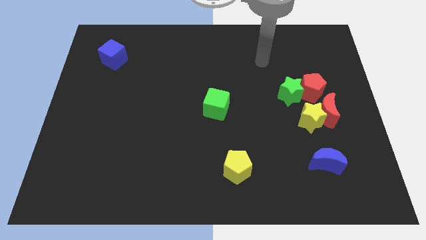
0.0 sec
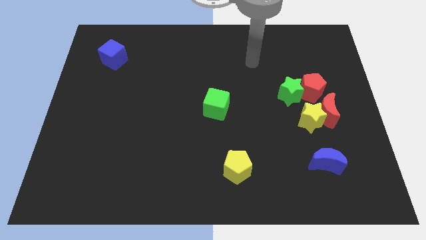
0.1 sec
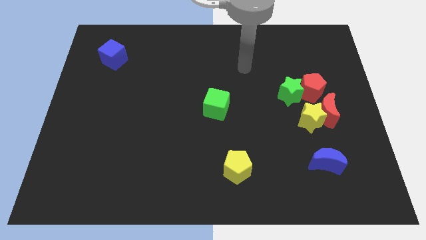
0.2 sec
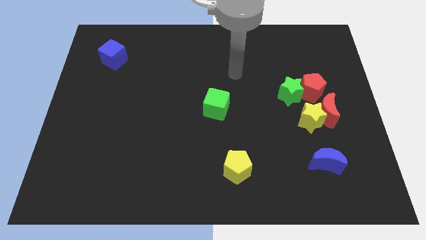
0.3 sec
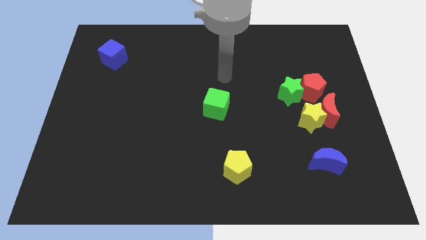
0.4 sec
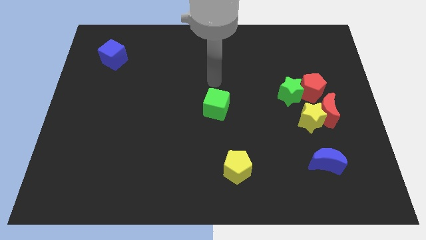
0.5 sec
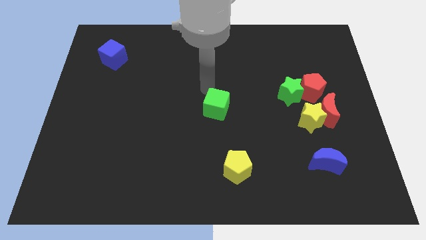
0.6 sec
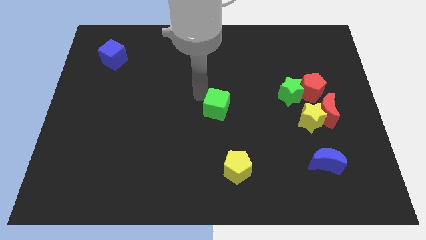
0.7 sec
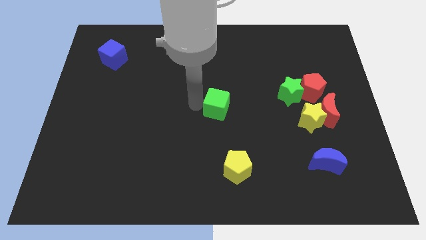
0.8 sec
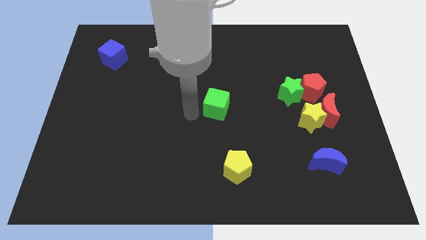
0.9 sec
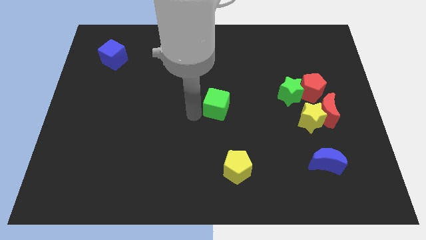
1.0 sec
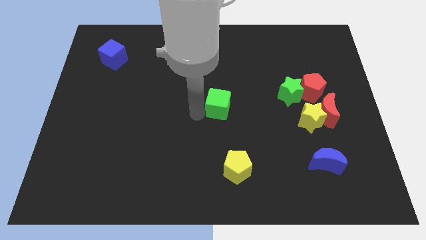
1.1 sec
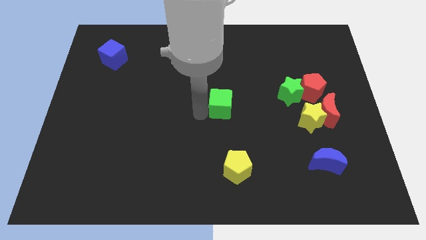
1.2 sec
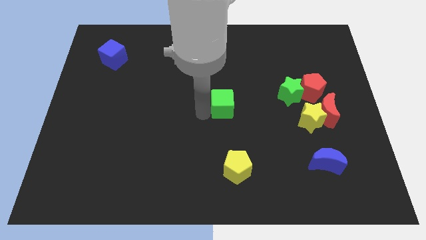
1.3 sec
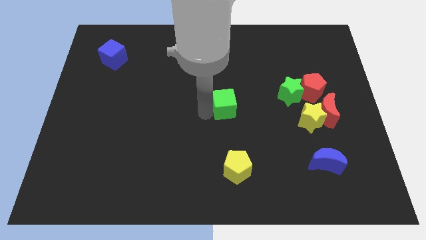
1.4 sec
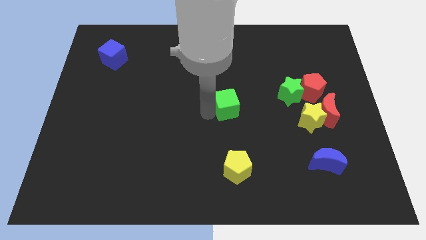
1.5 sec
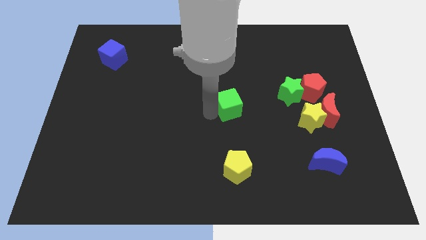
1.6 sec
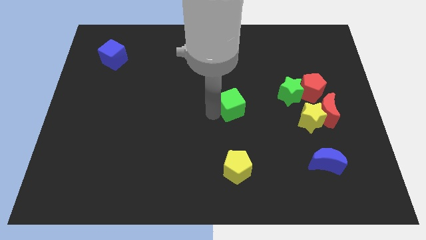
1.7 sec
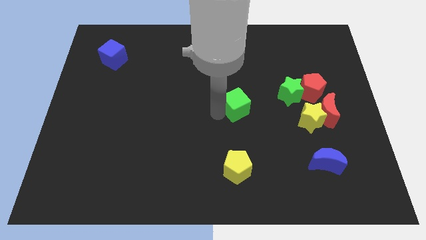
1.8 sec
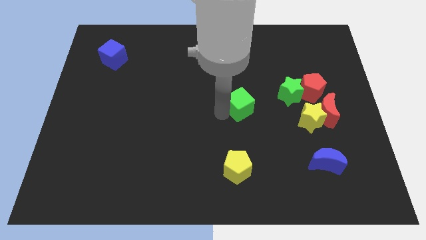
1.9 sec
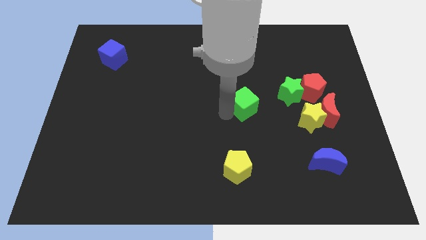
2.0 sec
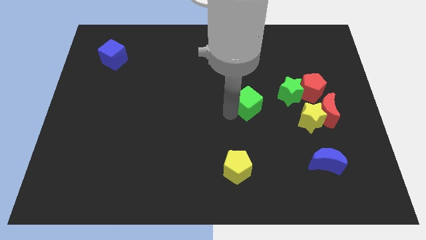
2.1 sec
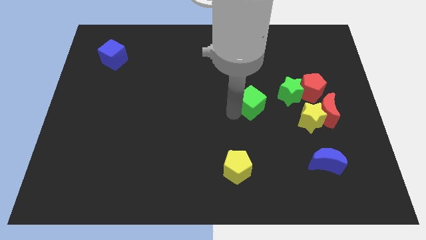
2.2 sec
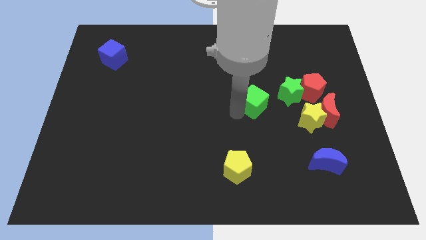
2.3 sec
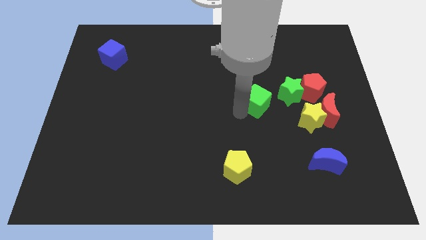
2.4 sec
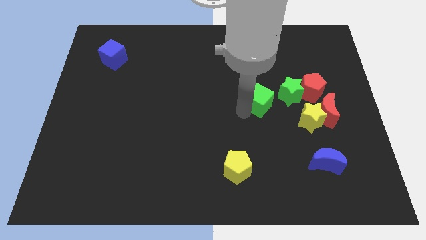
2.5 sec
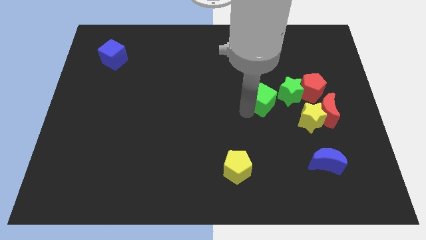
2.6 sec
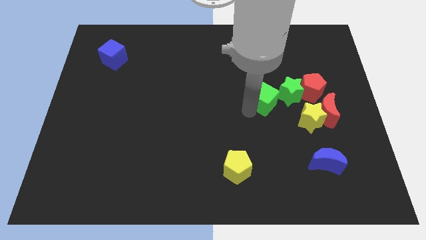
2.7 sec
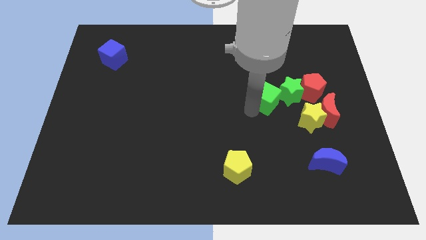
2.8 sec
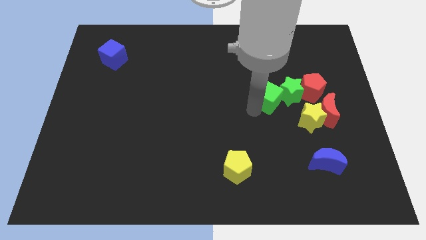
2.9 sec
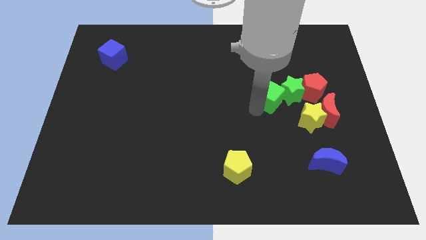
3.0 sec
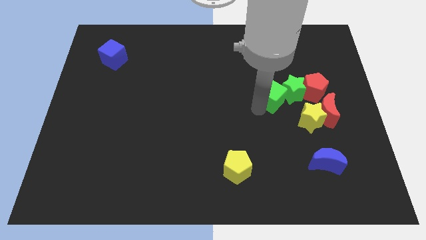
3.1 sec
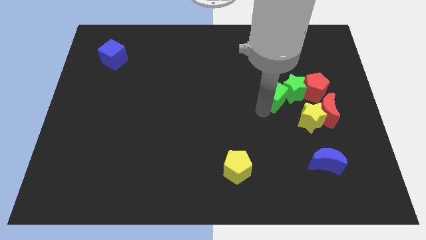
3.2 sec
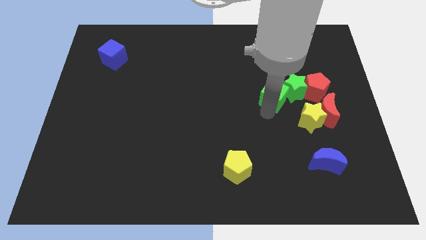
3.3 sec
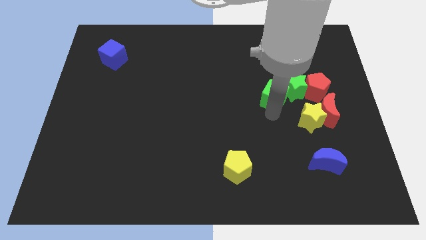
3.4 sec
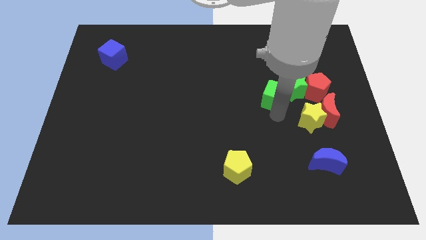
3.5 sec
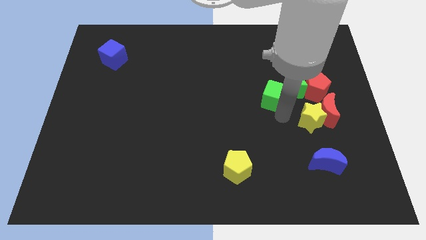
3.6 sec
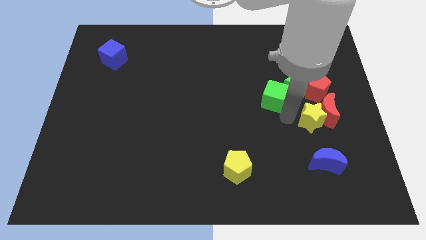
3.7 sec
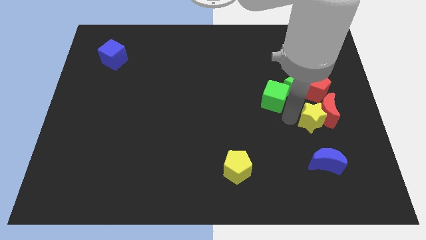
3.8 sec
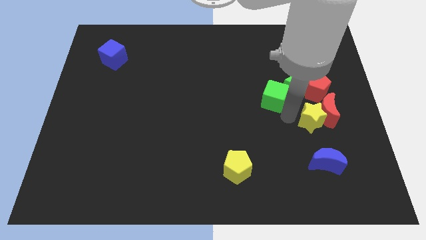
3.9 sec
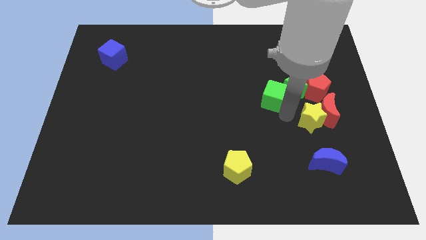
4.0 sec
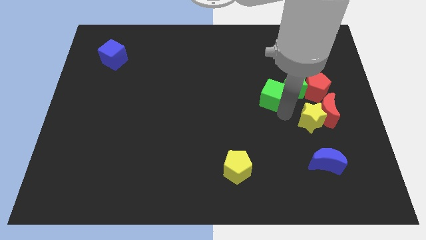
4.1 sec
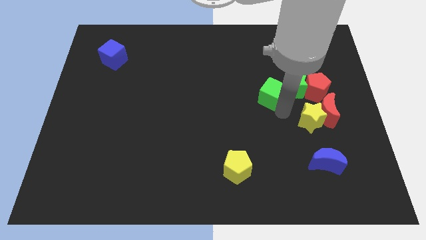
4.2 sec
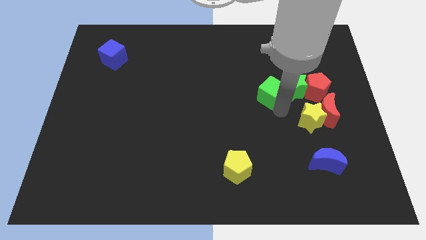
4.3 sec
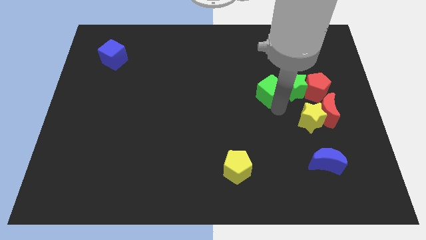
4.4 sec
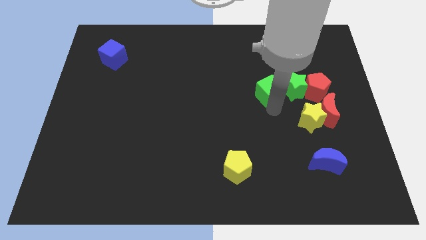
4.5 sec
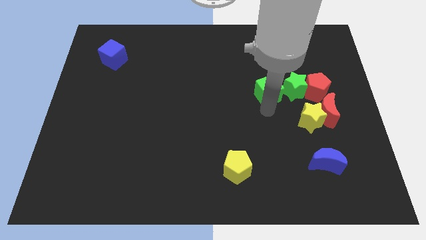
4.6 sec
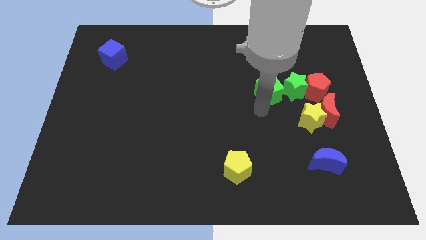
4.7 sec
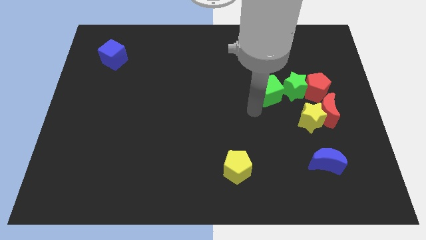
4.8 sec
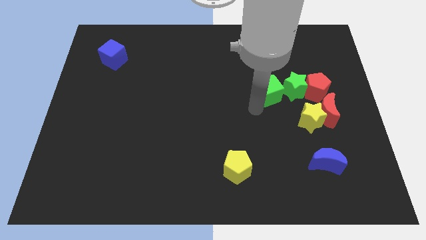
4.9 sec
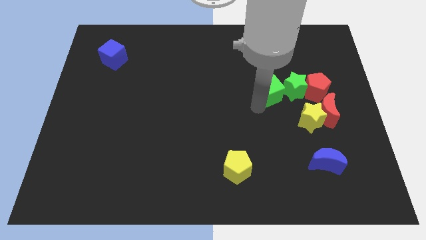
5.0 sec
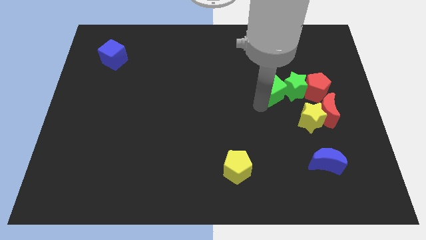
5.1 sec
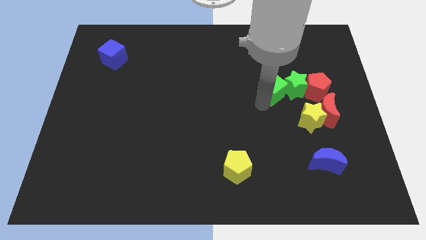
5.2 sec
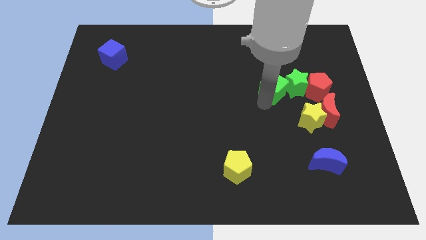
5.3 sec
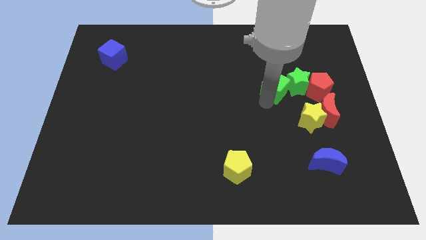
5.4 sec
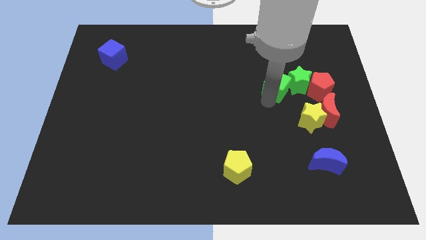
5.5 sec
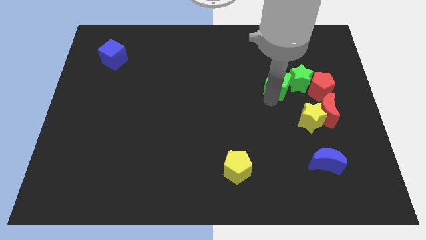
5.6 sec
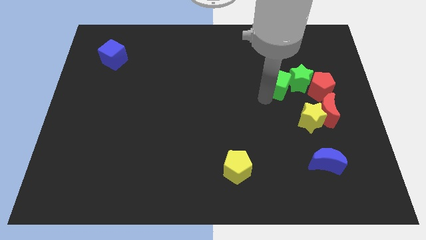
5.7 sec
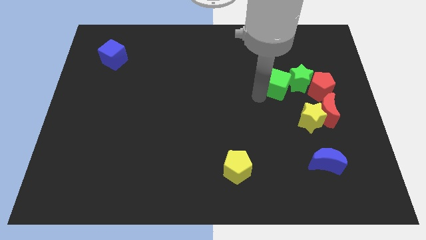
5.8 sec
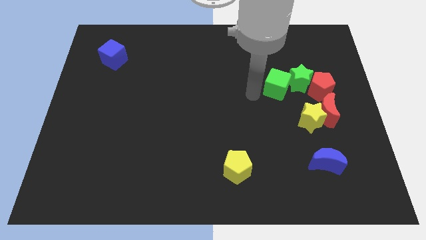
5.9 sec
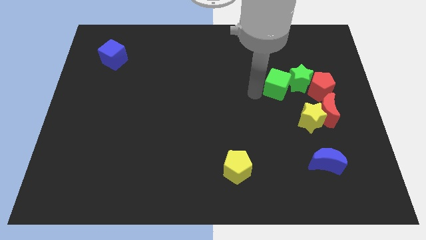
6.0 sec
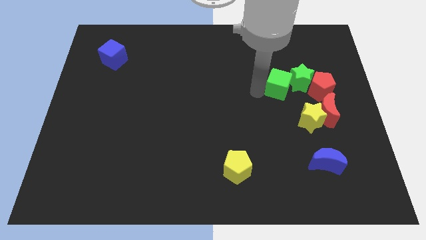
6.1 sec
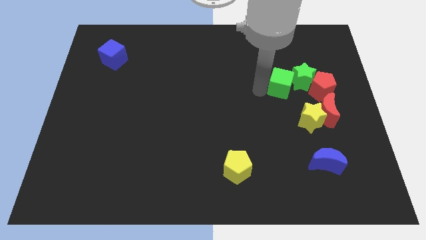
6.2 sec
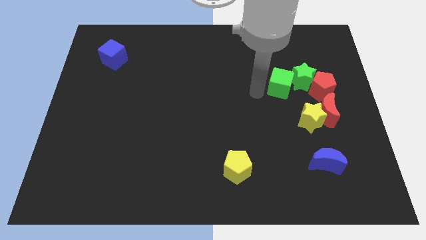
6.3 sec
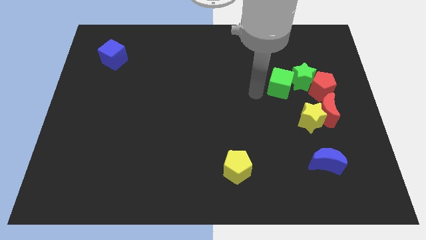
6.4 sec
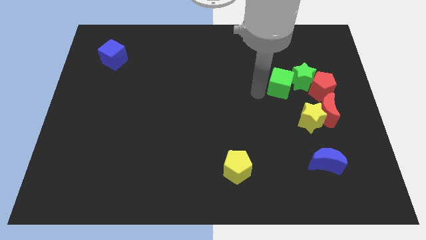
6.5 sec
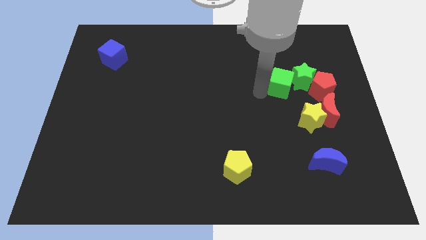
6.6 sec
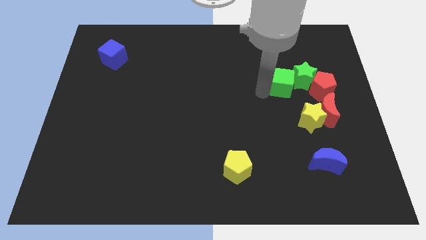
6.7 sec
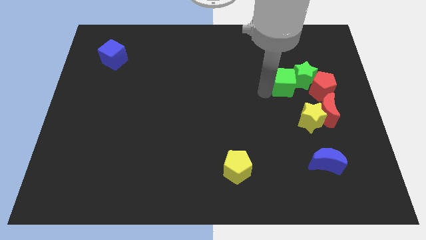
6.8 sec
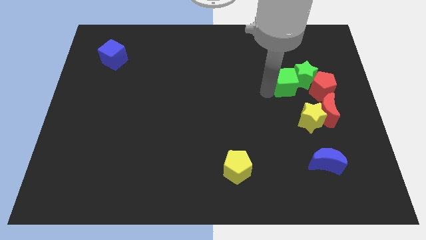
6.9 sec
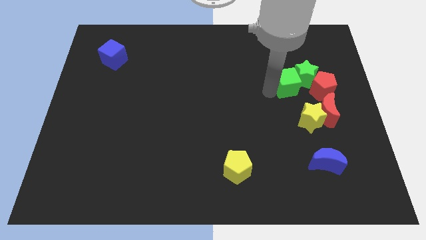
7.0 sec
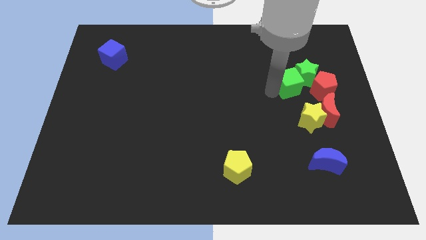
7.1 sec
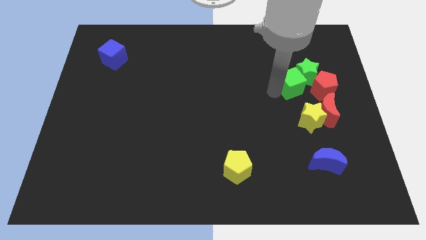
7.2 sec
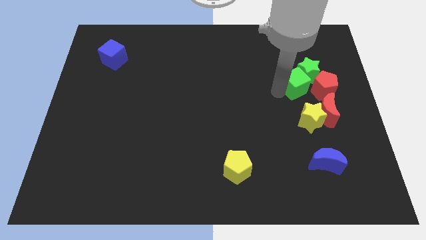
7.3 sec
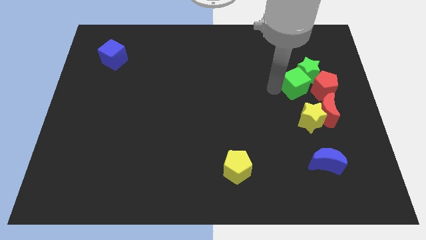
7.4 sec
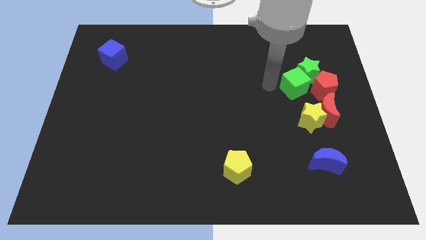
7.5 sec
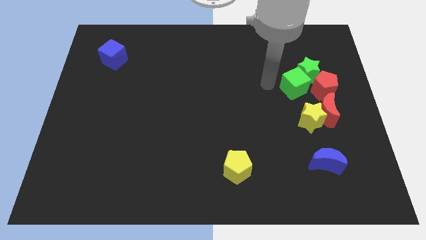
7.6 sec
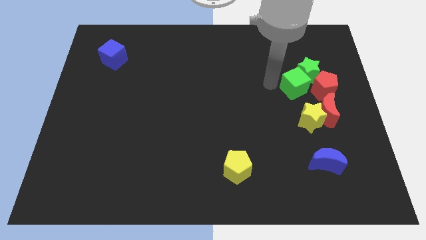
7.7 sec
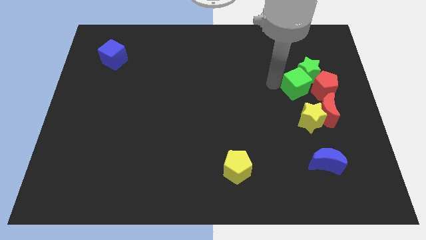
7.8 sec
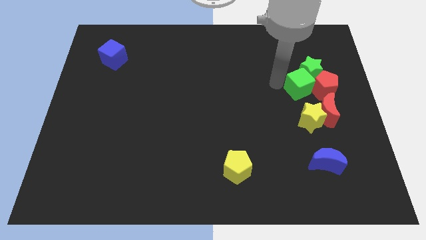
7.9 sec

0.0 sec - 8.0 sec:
put the green cube next to the red pentagon
